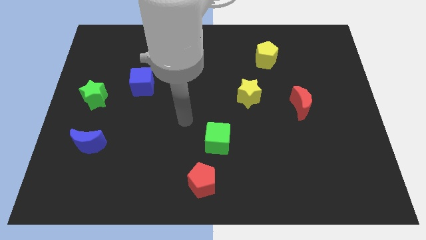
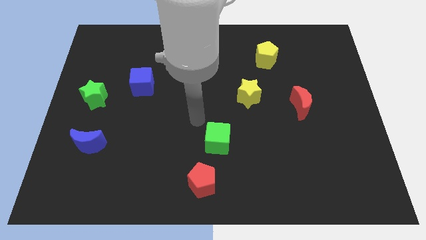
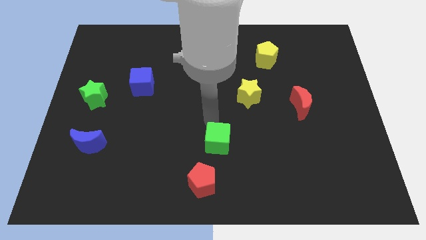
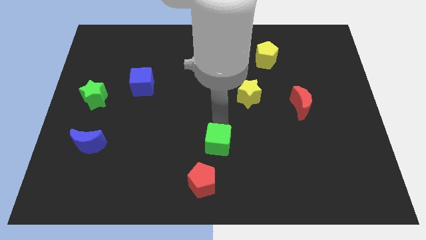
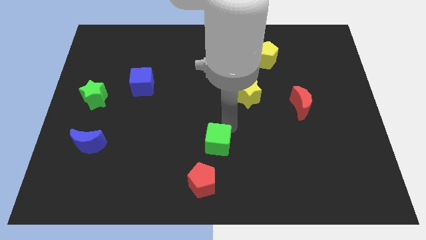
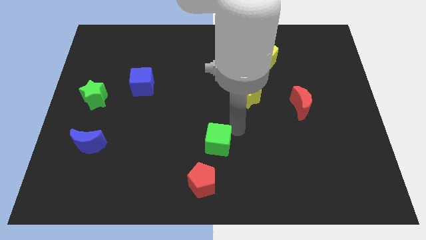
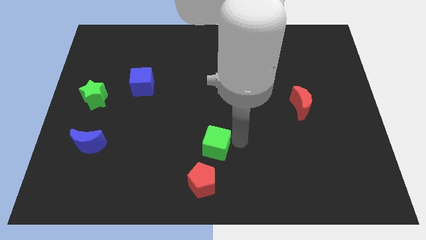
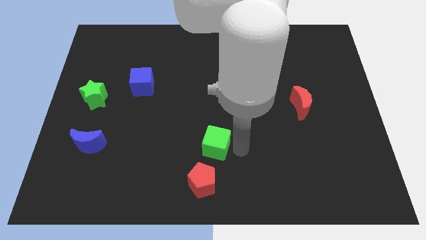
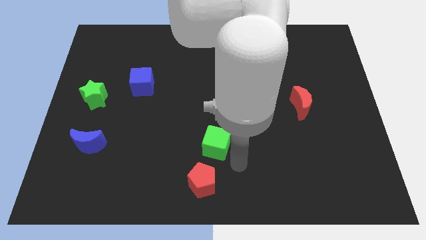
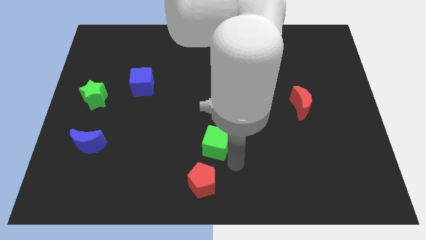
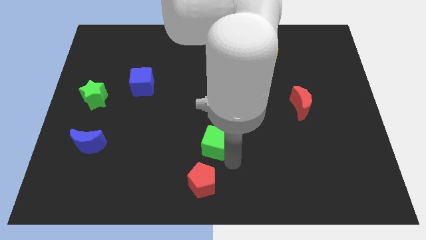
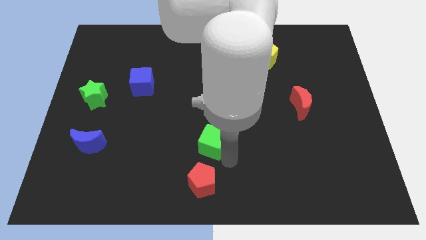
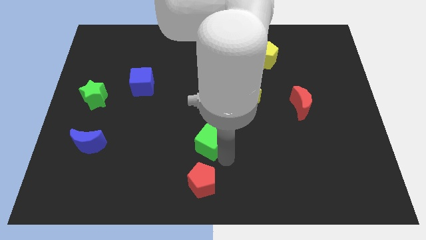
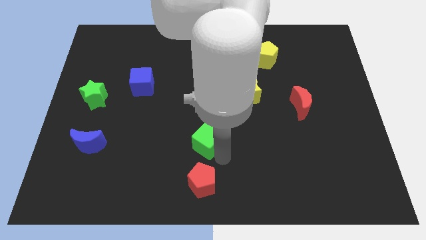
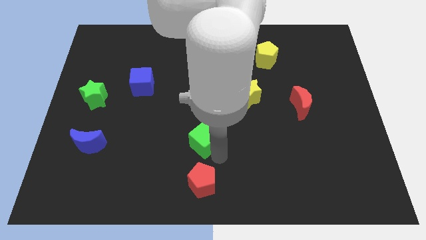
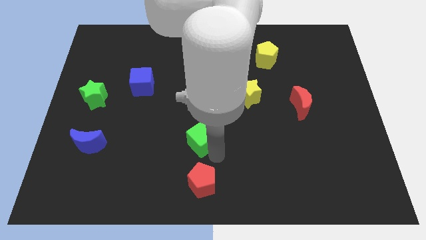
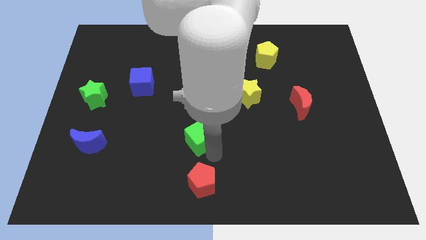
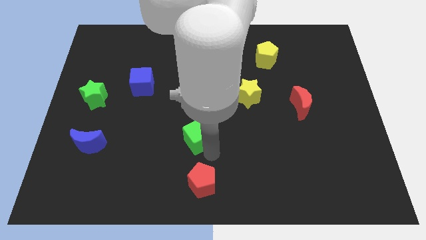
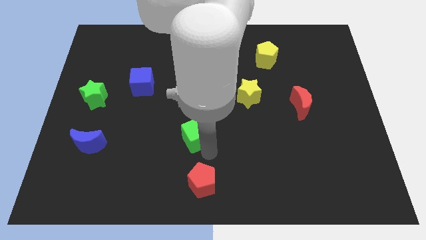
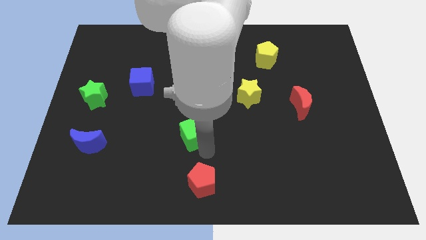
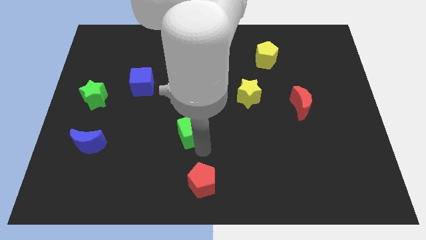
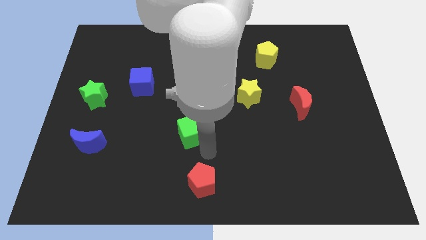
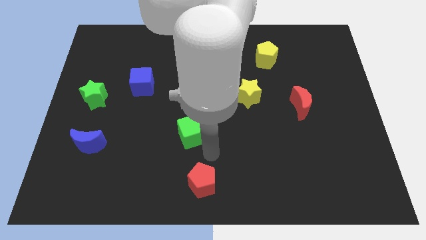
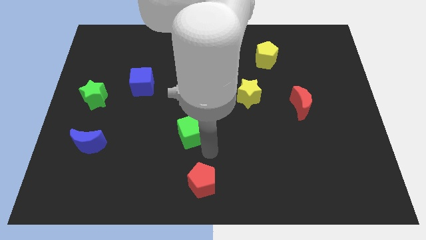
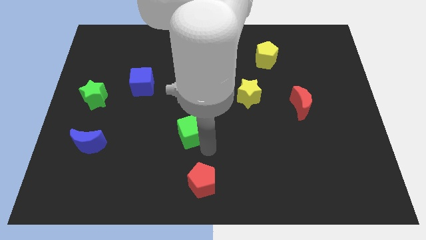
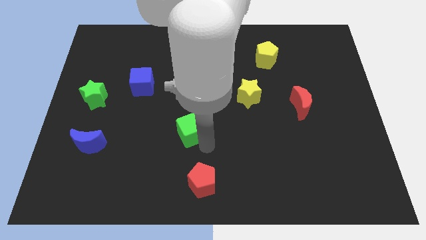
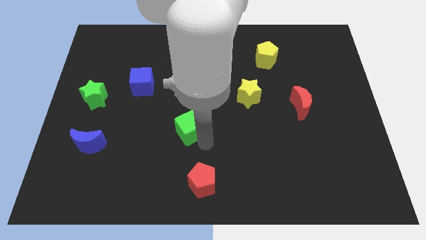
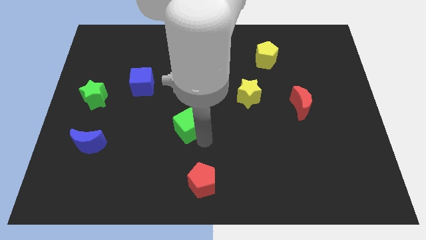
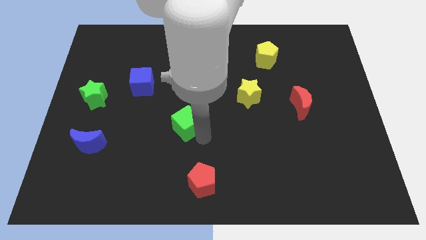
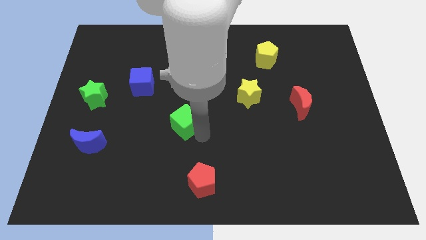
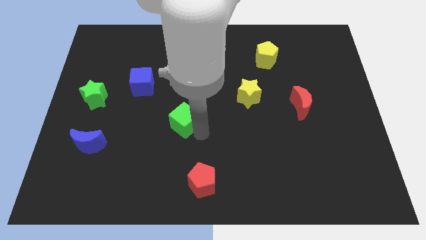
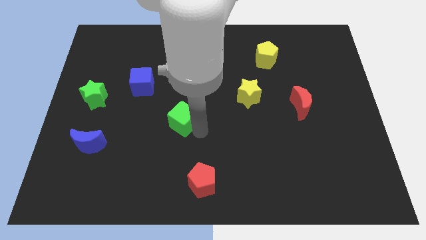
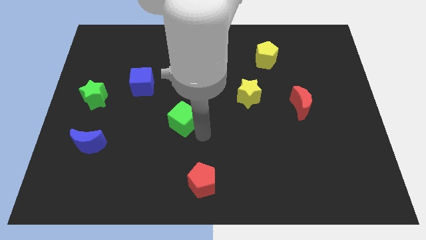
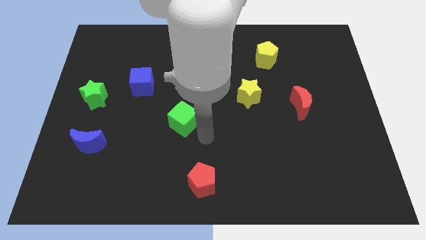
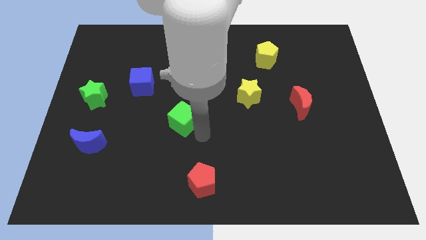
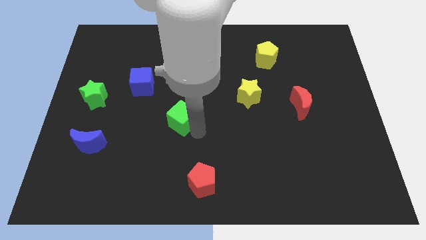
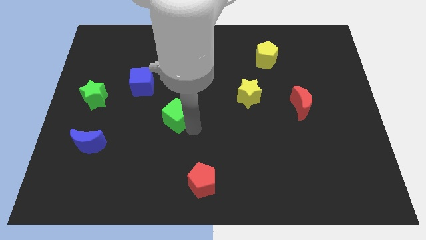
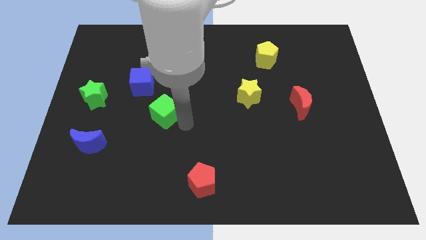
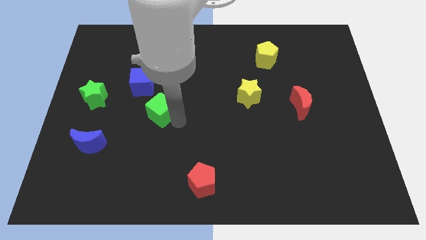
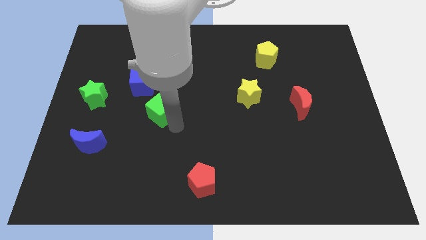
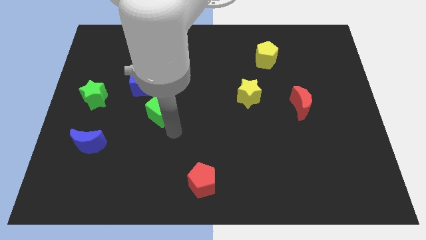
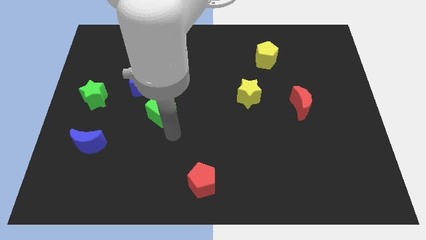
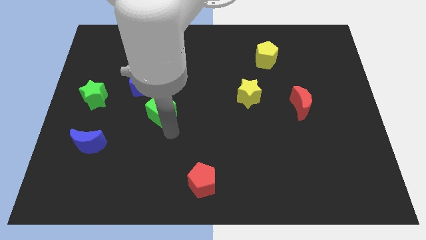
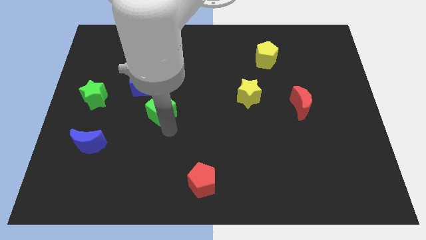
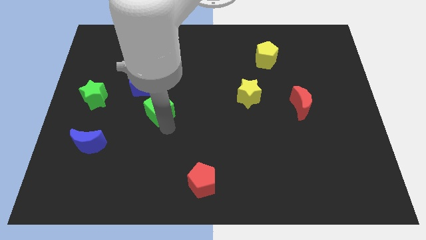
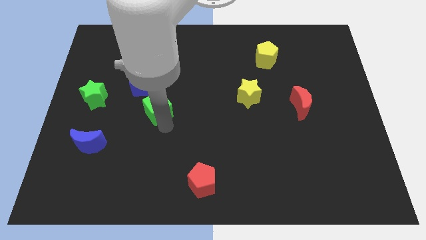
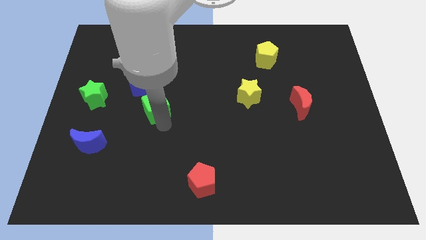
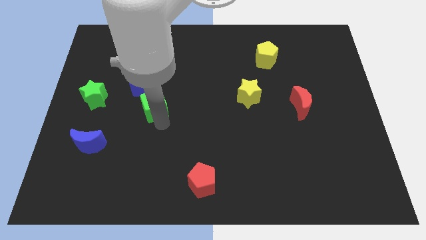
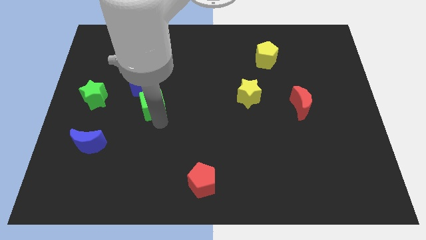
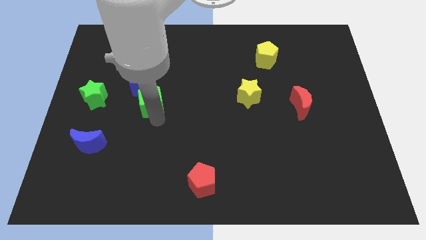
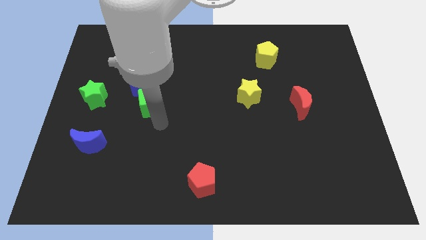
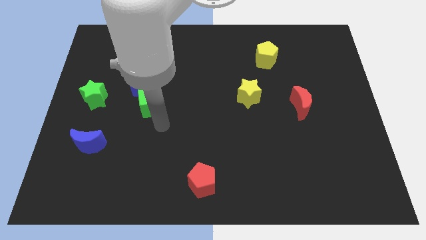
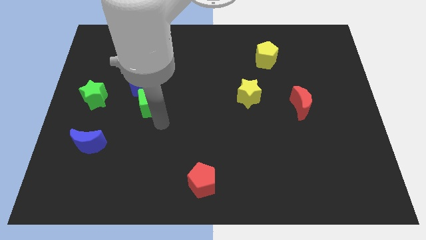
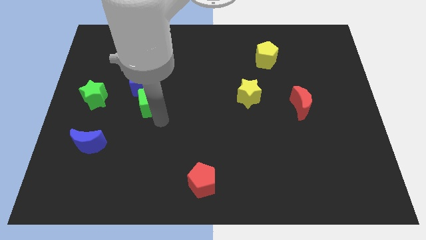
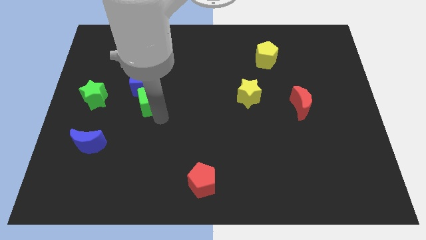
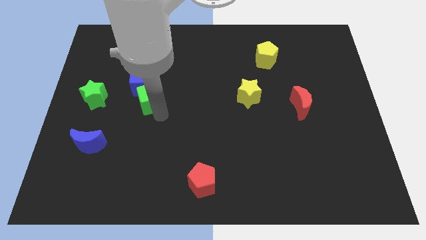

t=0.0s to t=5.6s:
put the green cube close to the blue cube

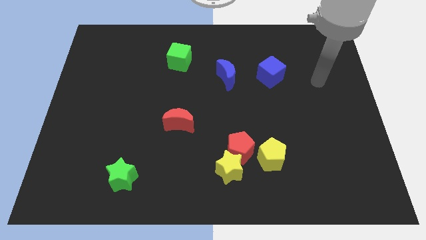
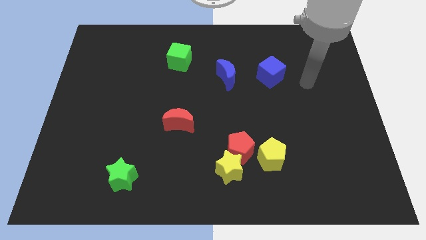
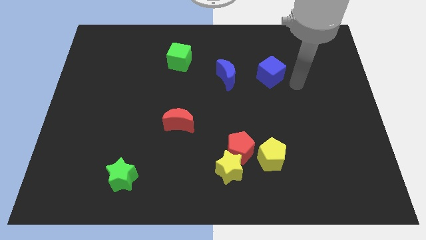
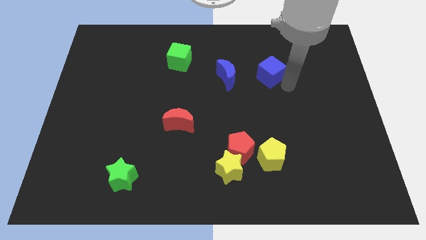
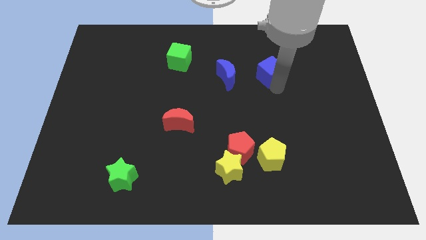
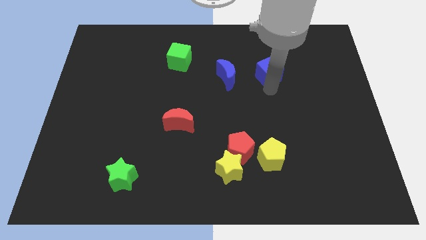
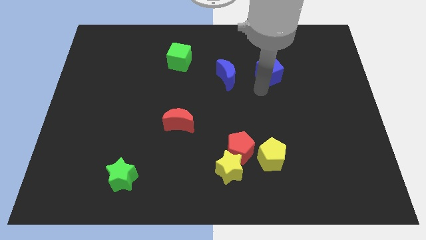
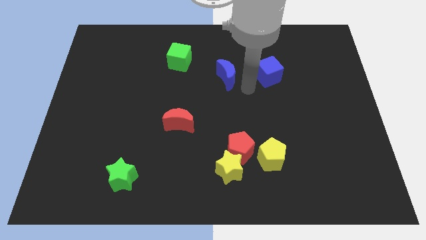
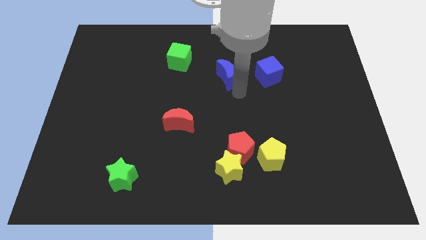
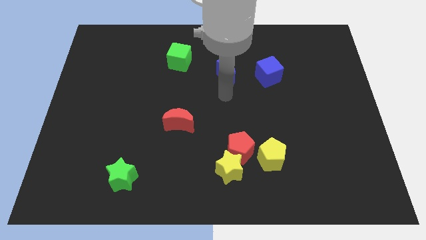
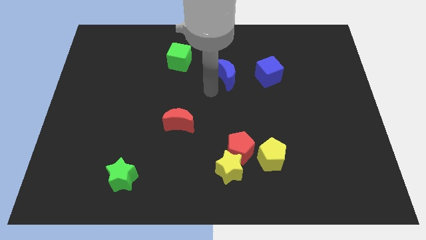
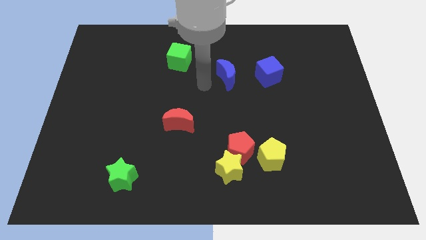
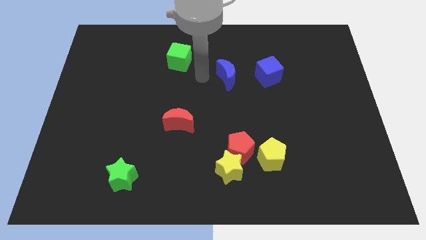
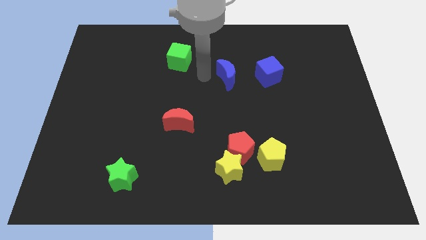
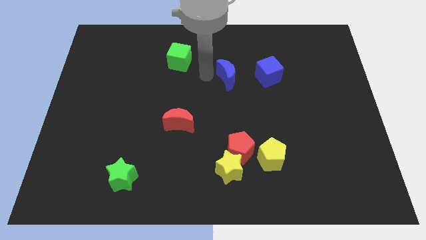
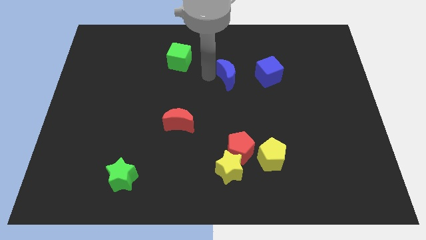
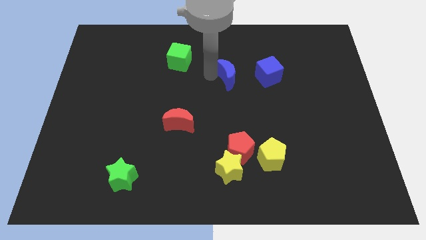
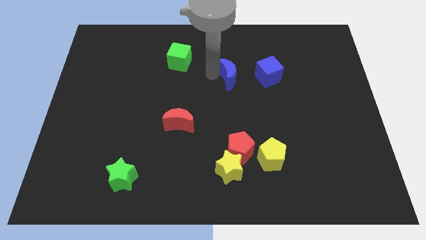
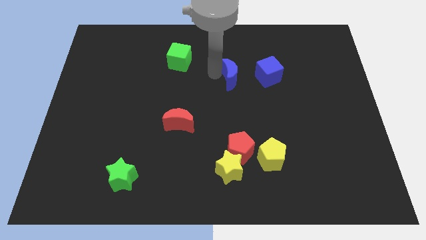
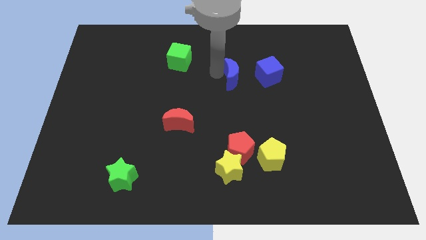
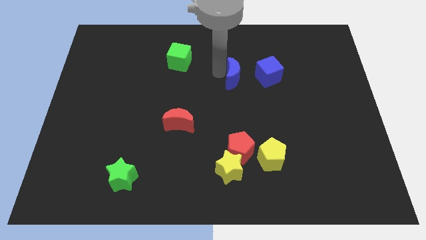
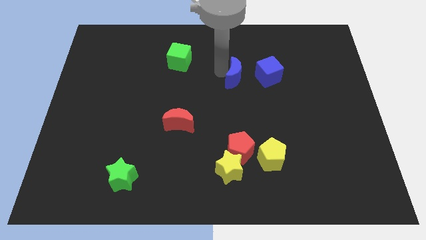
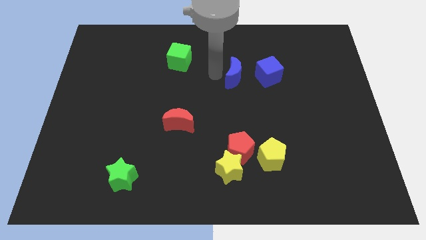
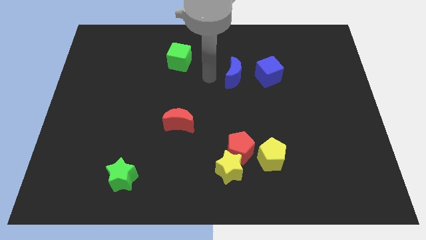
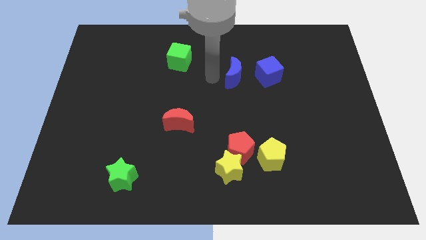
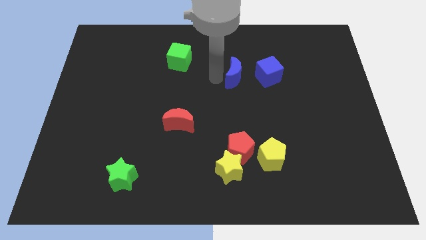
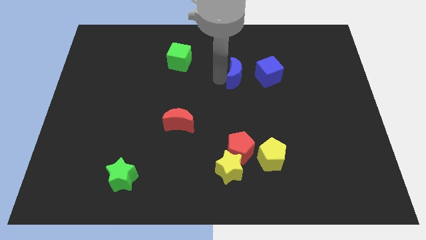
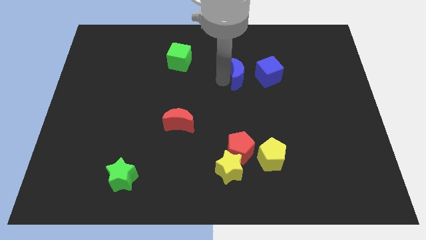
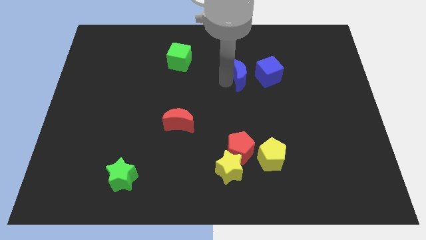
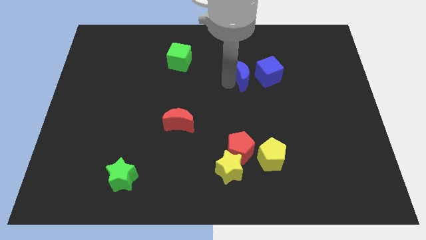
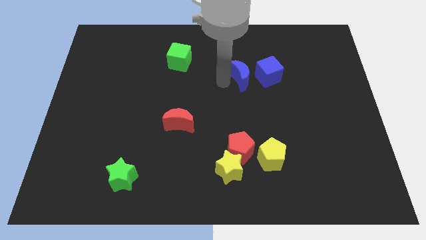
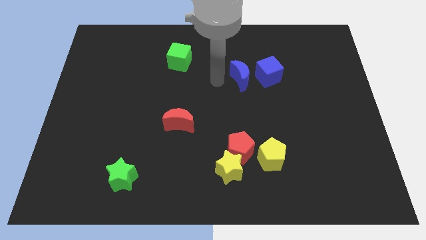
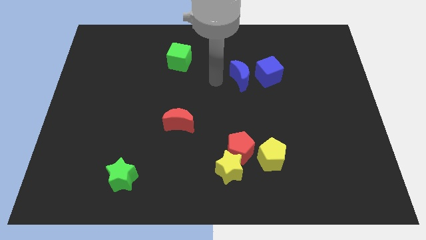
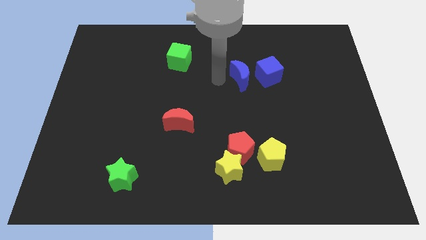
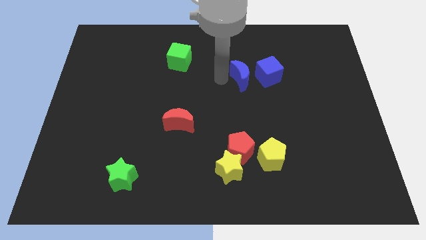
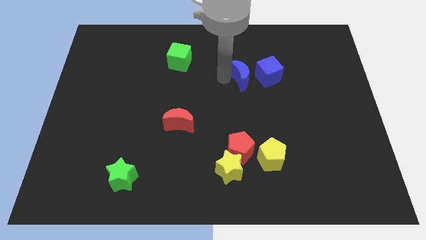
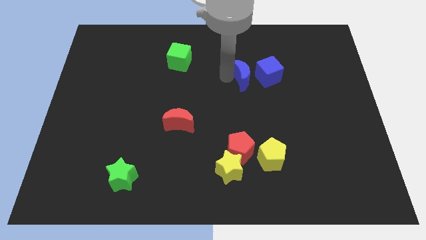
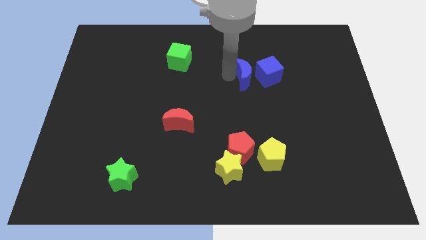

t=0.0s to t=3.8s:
put the blue moon next to the blue cube
